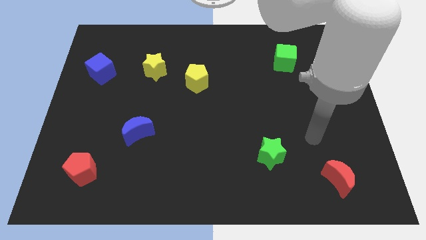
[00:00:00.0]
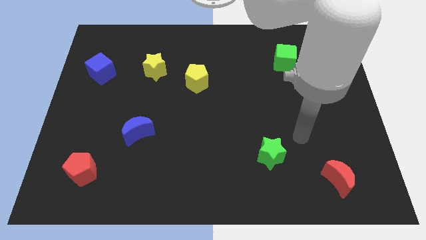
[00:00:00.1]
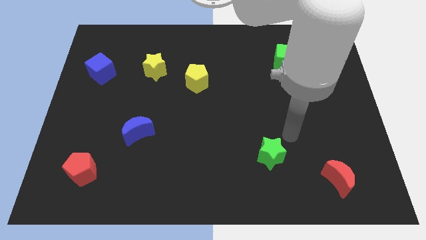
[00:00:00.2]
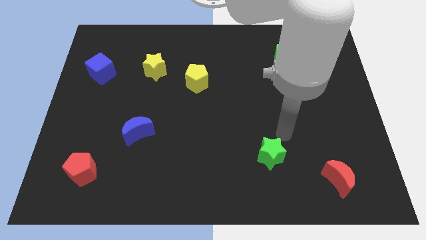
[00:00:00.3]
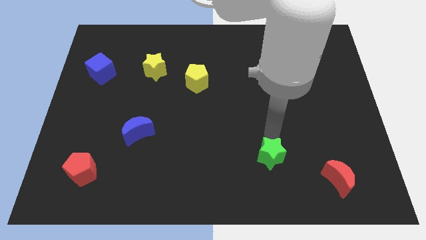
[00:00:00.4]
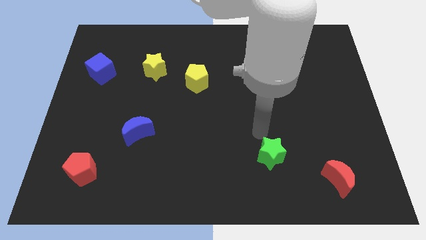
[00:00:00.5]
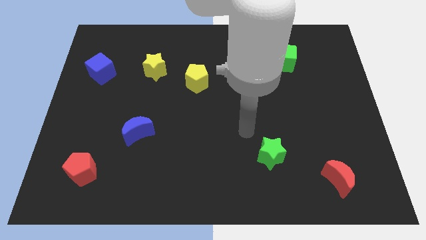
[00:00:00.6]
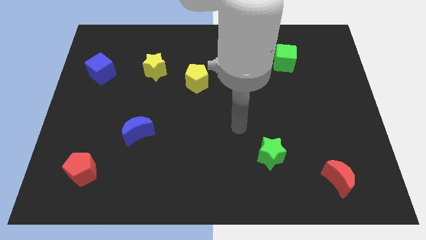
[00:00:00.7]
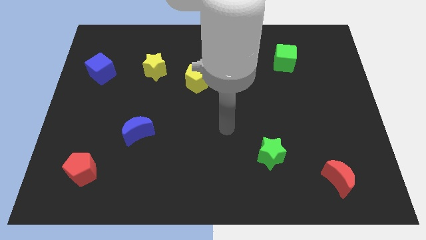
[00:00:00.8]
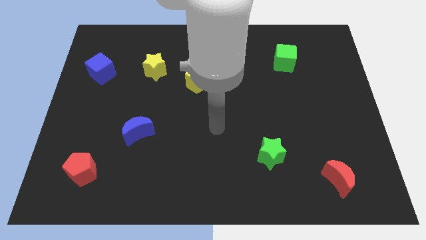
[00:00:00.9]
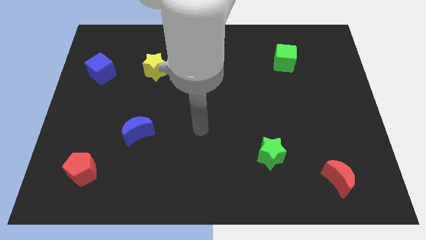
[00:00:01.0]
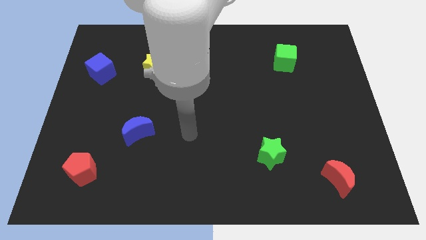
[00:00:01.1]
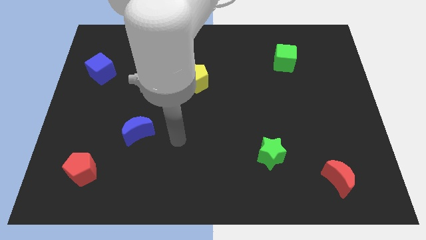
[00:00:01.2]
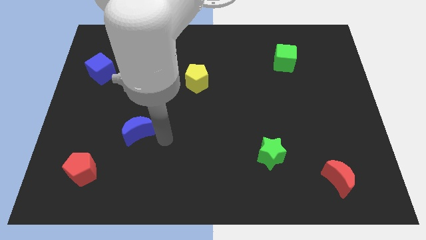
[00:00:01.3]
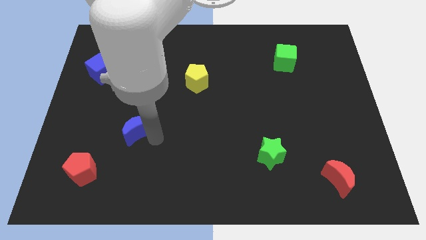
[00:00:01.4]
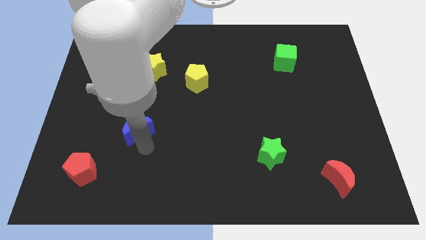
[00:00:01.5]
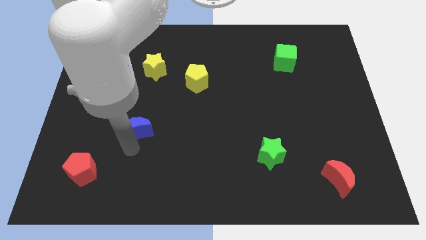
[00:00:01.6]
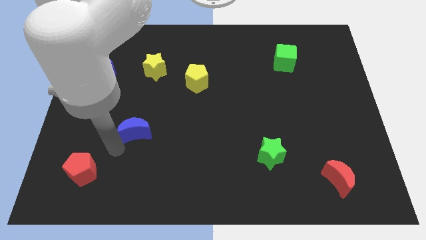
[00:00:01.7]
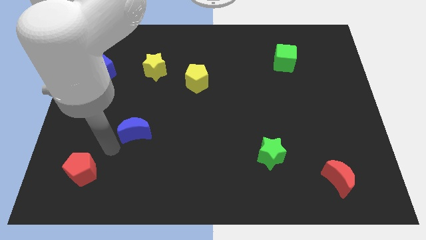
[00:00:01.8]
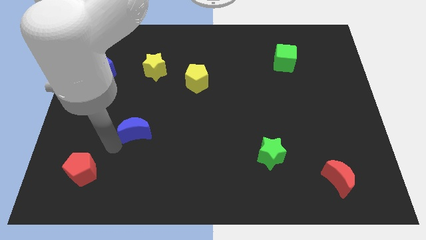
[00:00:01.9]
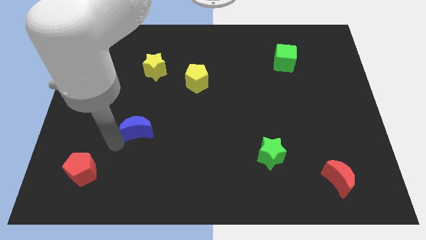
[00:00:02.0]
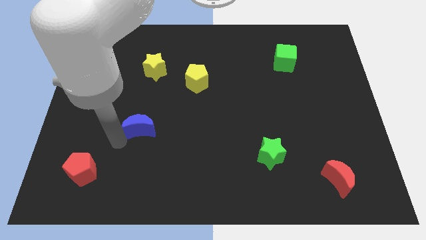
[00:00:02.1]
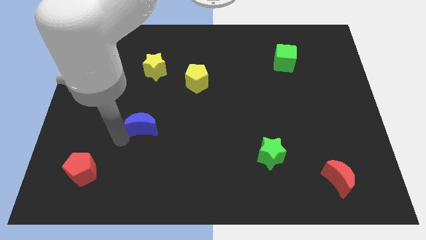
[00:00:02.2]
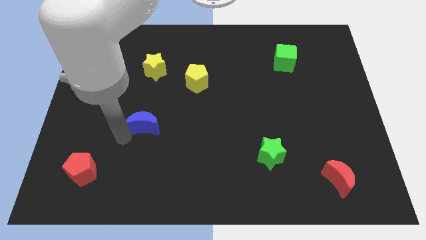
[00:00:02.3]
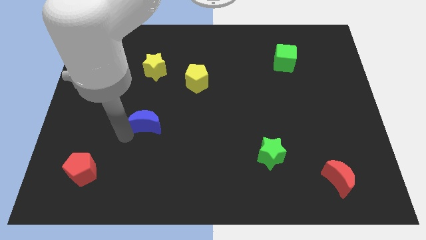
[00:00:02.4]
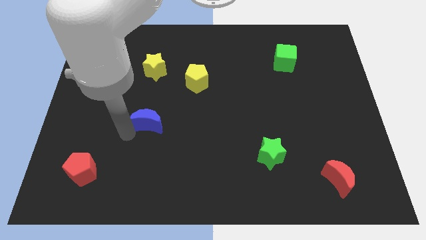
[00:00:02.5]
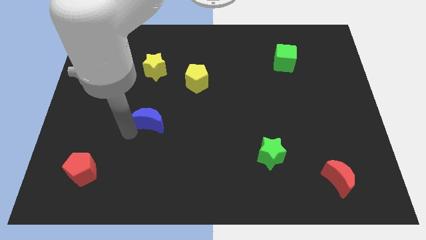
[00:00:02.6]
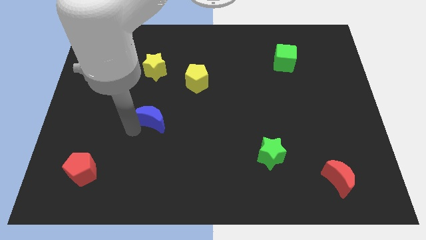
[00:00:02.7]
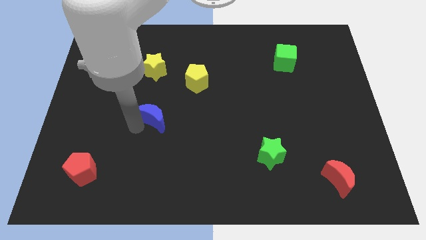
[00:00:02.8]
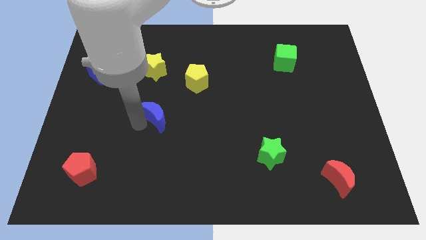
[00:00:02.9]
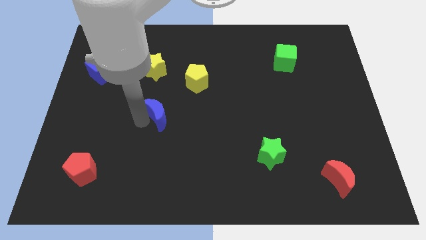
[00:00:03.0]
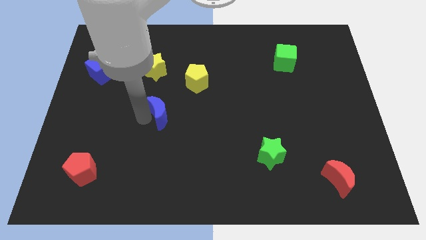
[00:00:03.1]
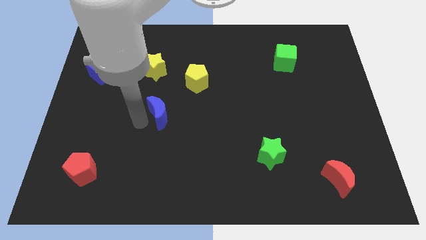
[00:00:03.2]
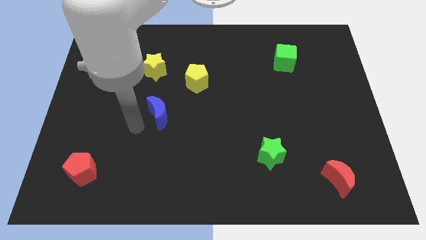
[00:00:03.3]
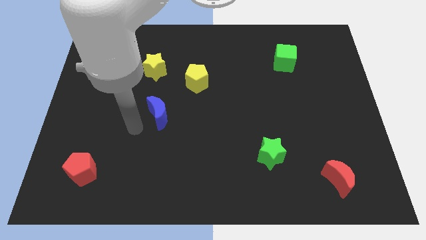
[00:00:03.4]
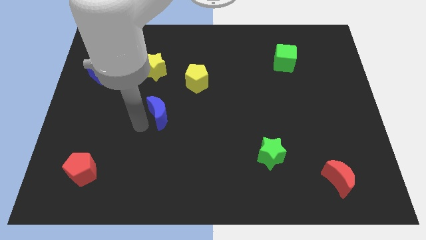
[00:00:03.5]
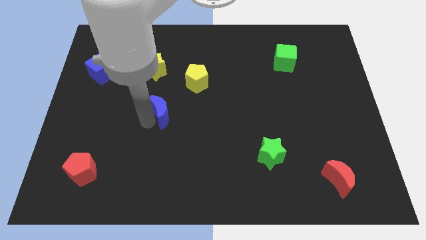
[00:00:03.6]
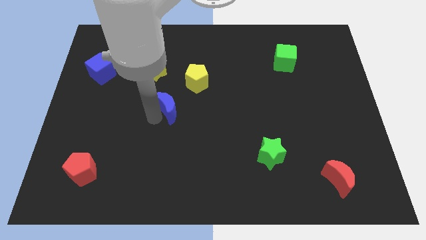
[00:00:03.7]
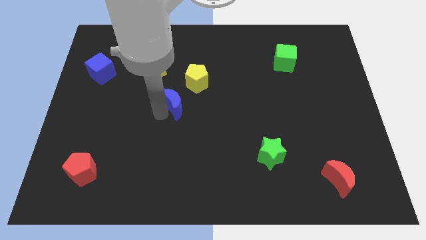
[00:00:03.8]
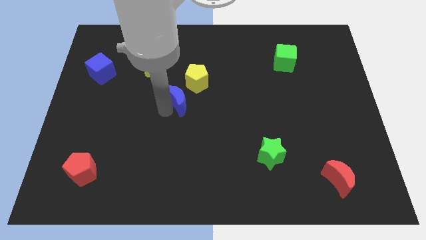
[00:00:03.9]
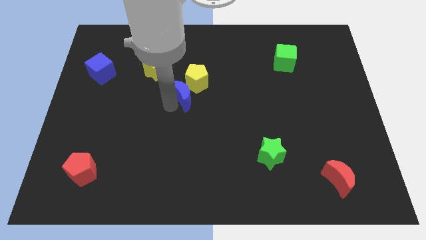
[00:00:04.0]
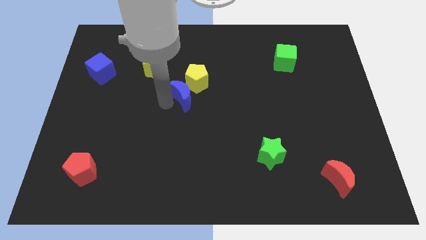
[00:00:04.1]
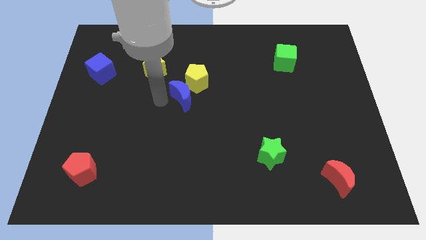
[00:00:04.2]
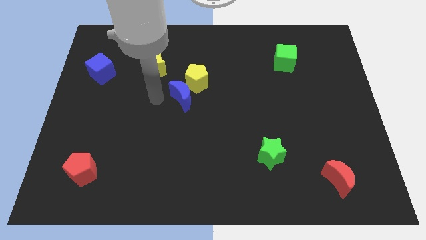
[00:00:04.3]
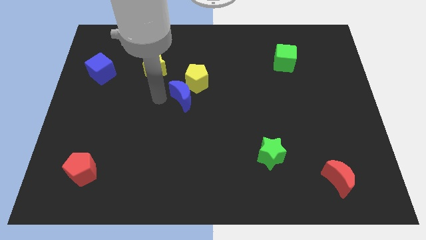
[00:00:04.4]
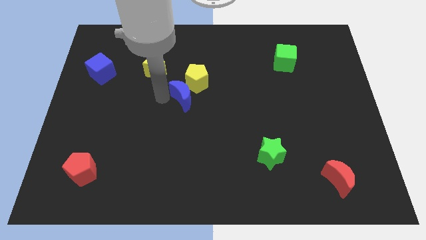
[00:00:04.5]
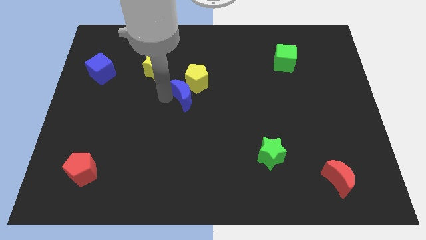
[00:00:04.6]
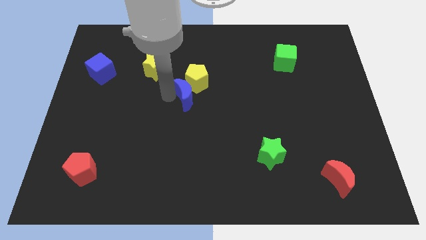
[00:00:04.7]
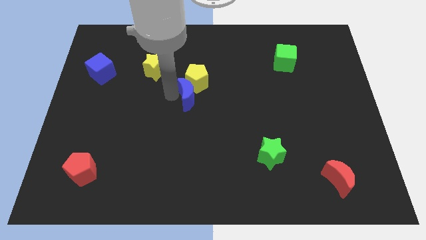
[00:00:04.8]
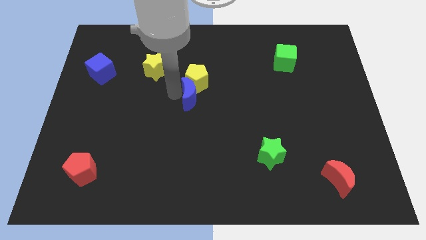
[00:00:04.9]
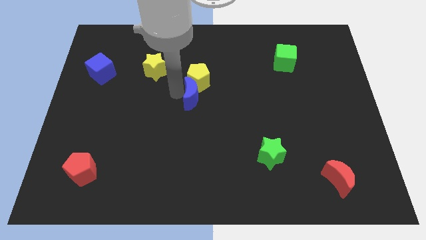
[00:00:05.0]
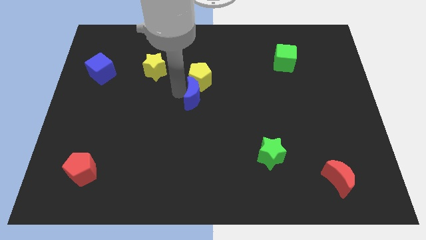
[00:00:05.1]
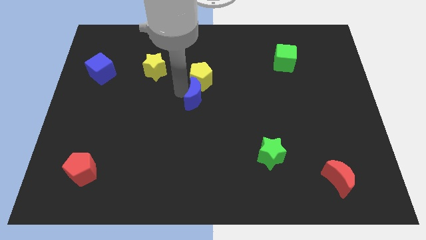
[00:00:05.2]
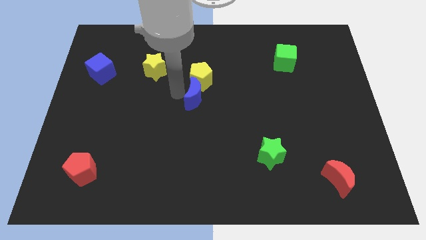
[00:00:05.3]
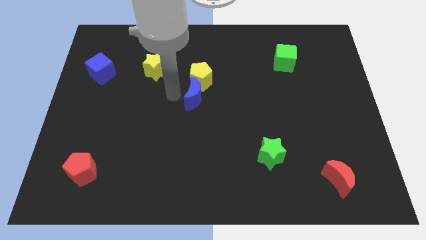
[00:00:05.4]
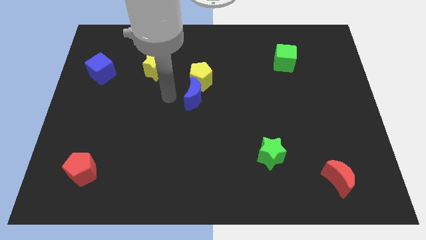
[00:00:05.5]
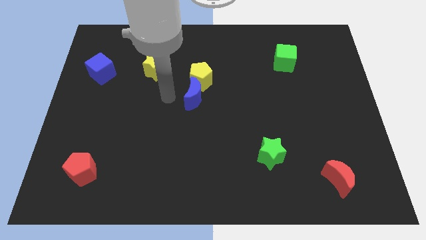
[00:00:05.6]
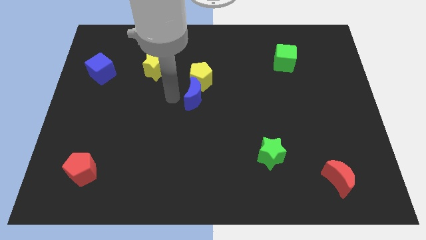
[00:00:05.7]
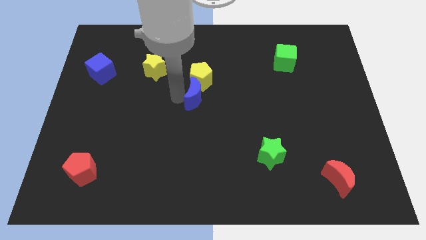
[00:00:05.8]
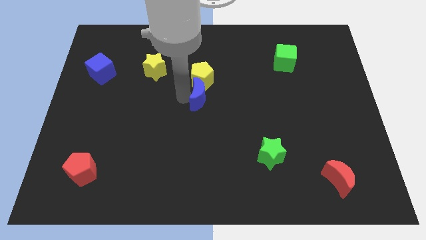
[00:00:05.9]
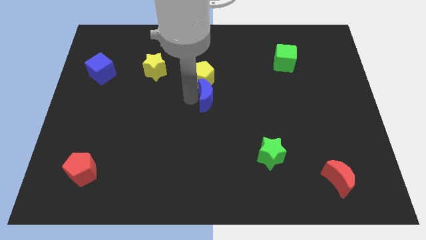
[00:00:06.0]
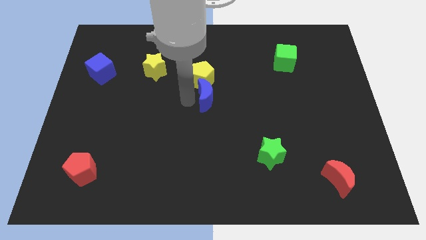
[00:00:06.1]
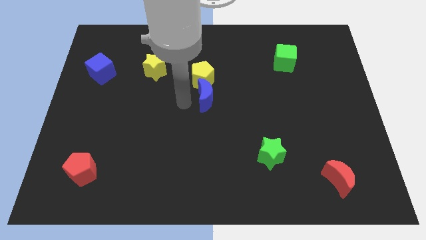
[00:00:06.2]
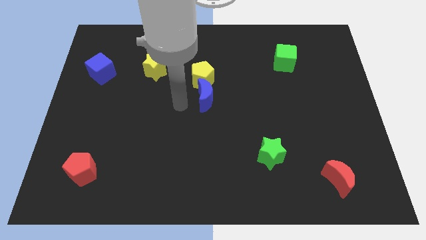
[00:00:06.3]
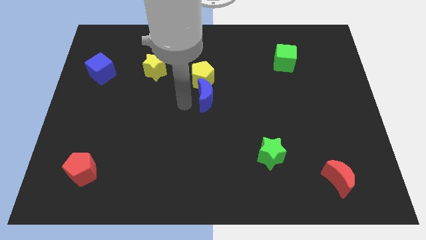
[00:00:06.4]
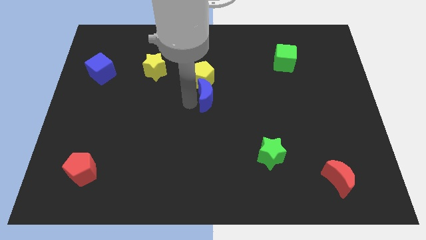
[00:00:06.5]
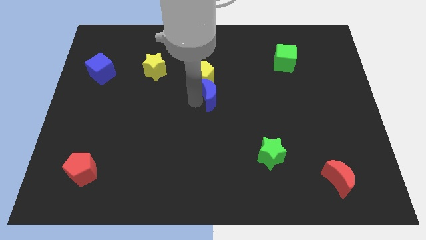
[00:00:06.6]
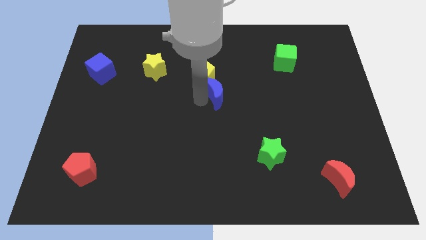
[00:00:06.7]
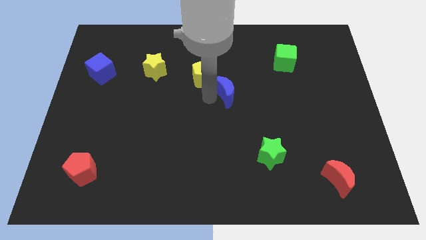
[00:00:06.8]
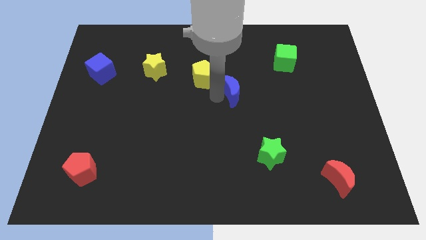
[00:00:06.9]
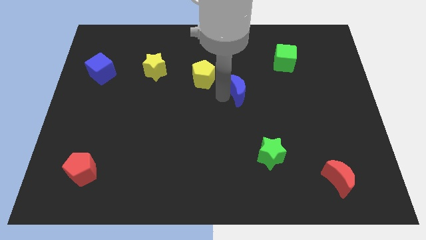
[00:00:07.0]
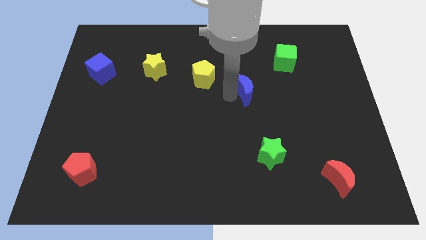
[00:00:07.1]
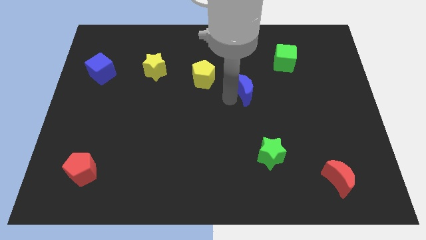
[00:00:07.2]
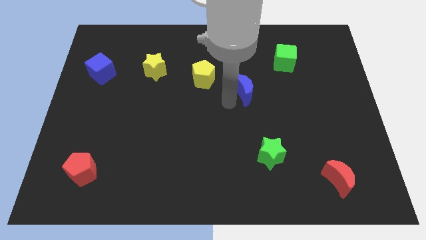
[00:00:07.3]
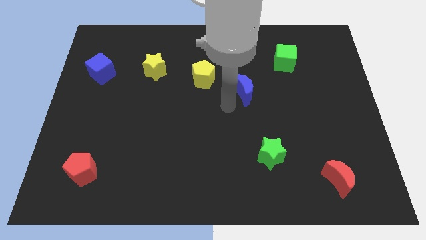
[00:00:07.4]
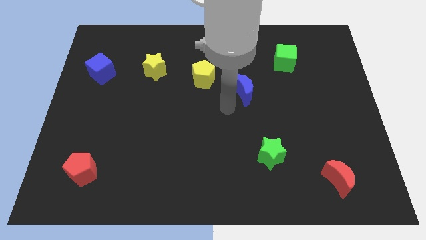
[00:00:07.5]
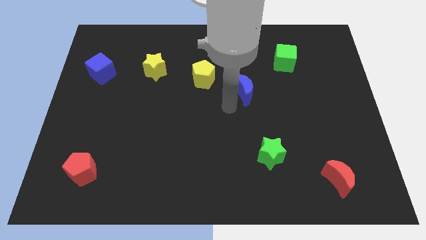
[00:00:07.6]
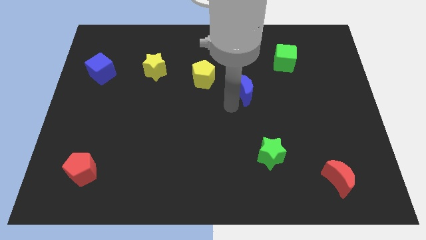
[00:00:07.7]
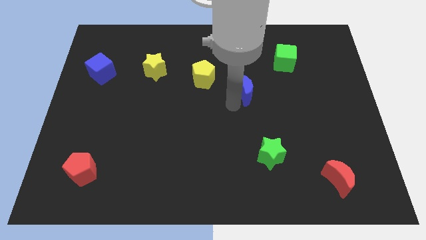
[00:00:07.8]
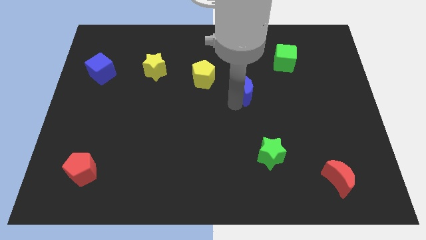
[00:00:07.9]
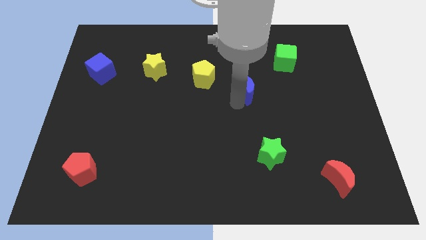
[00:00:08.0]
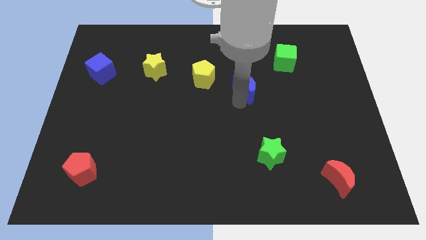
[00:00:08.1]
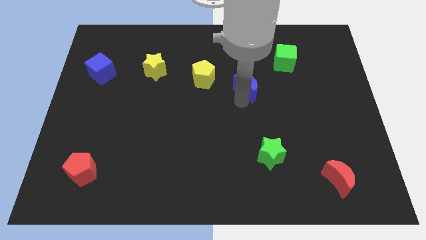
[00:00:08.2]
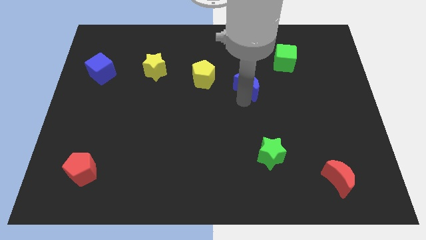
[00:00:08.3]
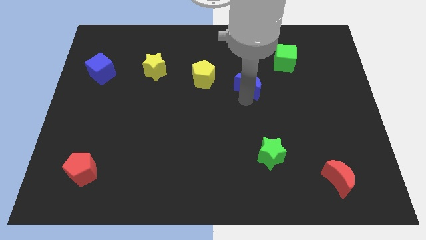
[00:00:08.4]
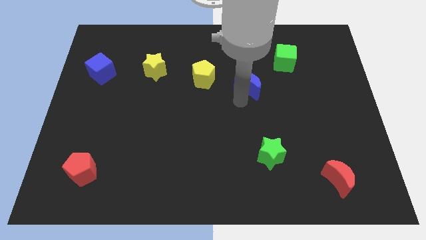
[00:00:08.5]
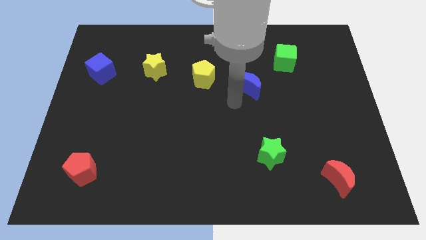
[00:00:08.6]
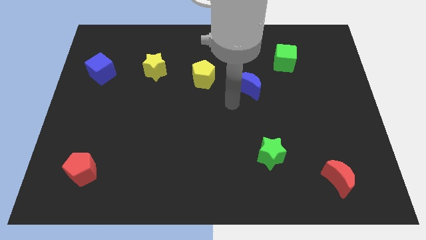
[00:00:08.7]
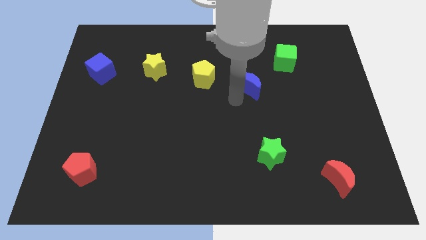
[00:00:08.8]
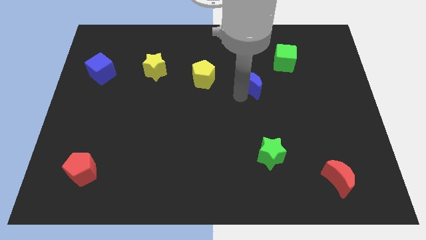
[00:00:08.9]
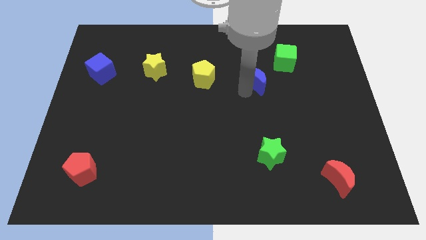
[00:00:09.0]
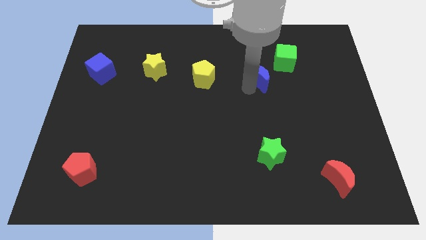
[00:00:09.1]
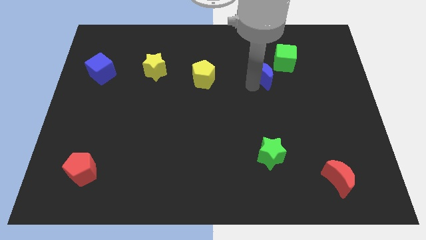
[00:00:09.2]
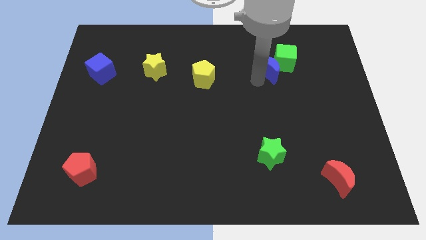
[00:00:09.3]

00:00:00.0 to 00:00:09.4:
put the blue moon to the green cube
